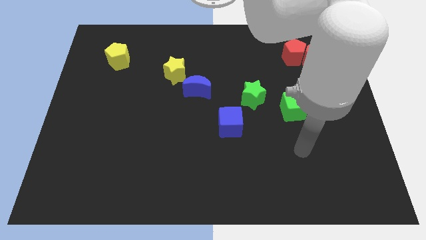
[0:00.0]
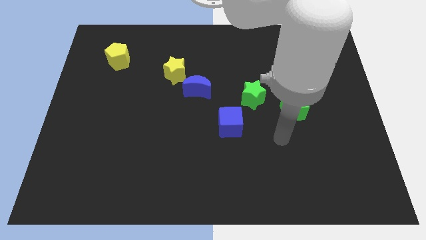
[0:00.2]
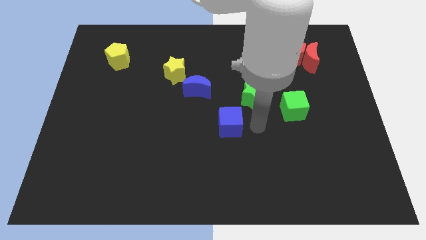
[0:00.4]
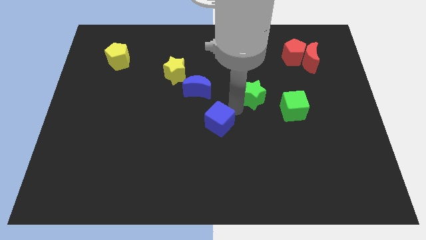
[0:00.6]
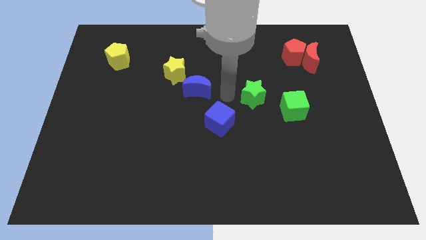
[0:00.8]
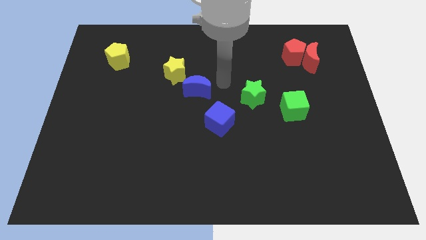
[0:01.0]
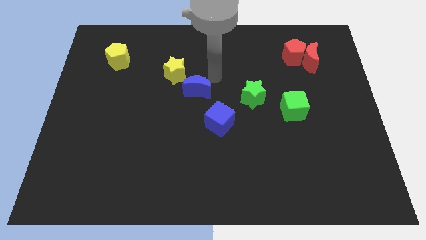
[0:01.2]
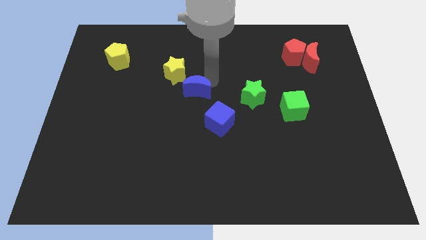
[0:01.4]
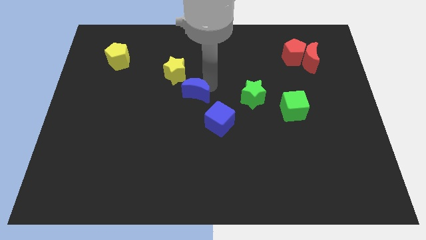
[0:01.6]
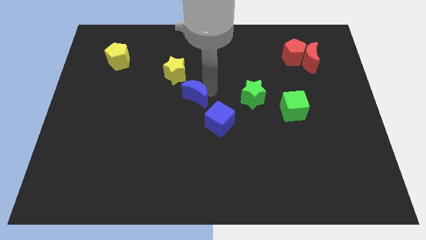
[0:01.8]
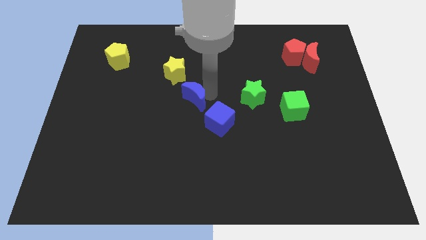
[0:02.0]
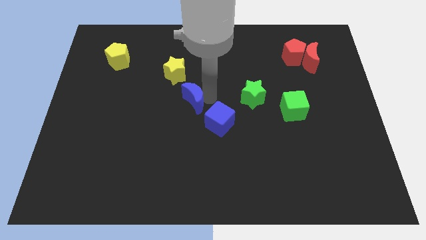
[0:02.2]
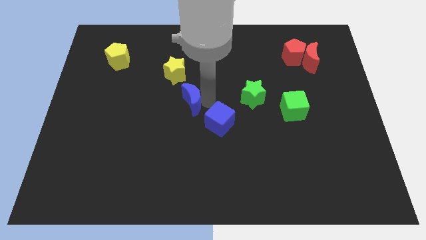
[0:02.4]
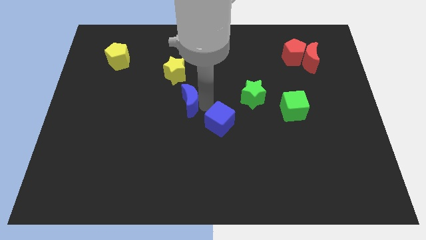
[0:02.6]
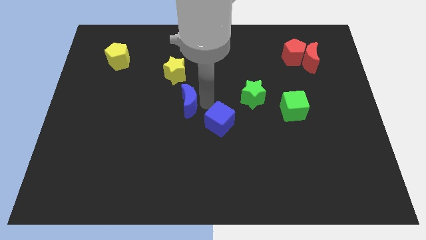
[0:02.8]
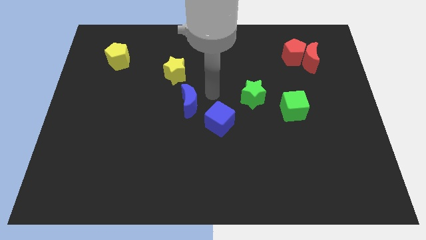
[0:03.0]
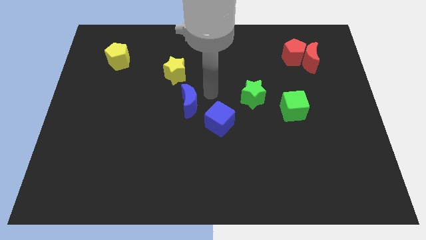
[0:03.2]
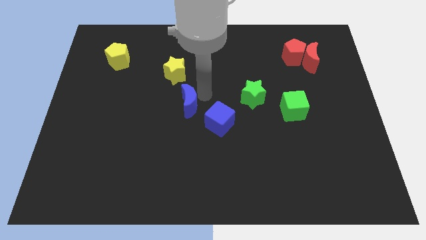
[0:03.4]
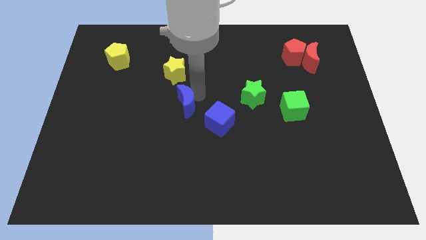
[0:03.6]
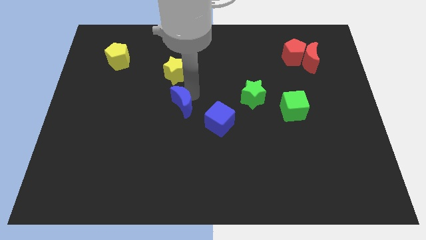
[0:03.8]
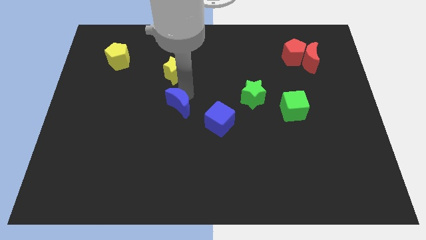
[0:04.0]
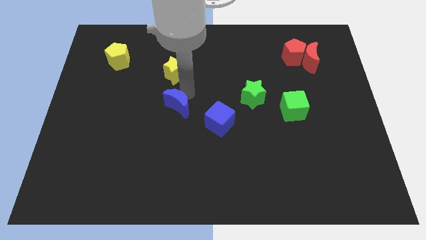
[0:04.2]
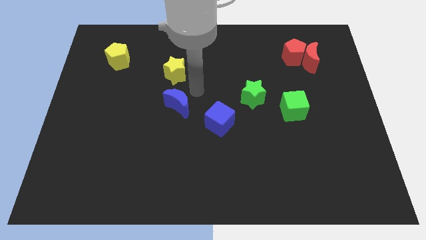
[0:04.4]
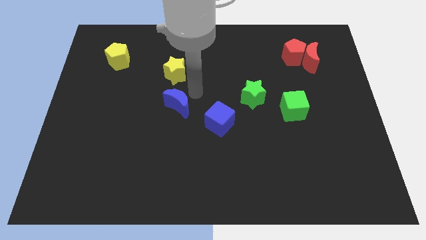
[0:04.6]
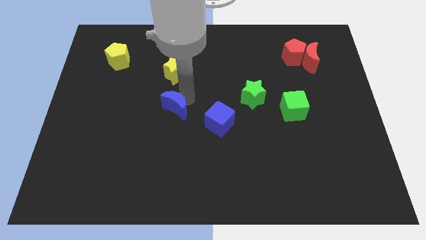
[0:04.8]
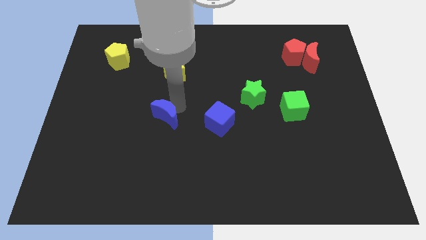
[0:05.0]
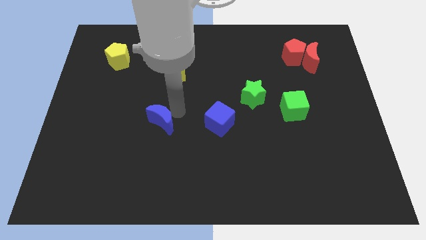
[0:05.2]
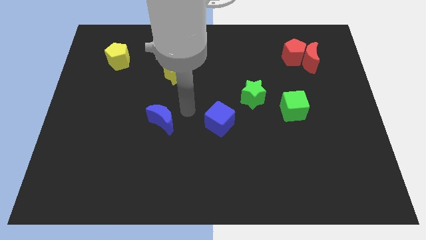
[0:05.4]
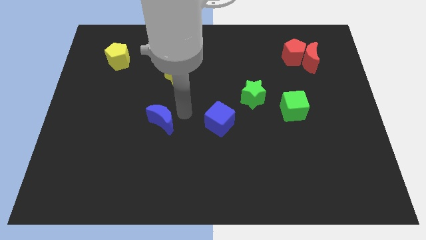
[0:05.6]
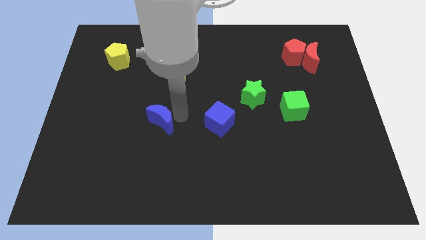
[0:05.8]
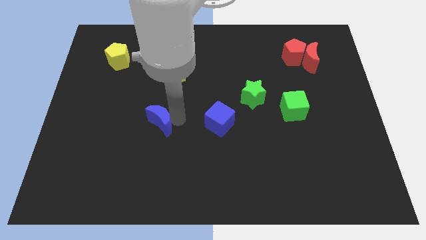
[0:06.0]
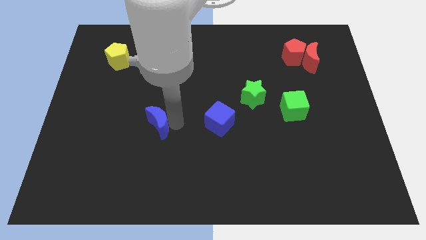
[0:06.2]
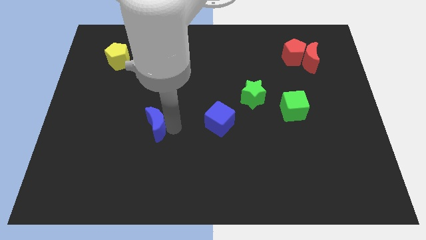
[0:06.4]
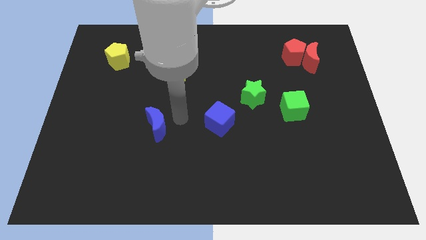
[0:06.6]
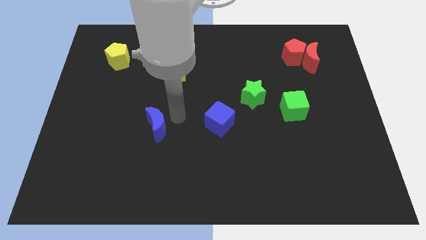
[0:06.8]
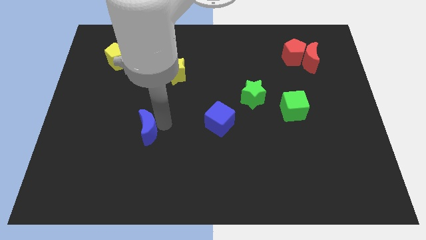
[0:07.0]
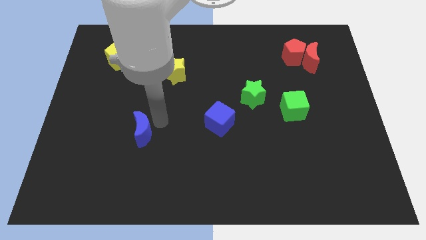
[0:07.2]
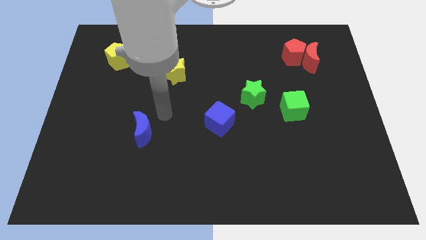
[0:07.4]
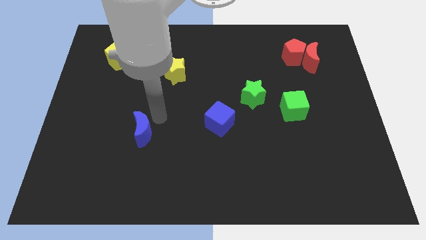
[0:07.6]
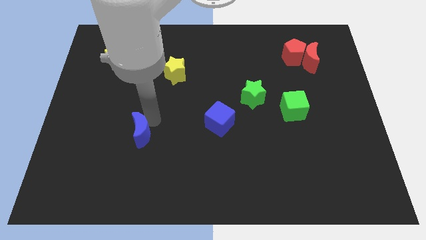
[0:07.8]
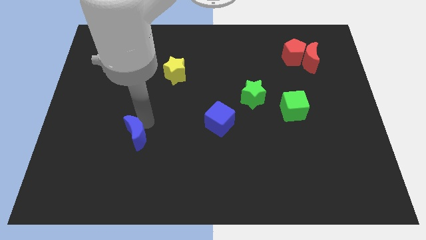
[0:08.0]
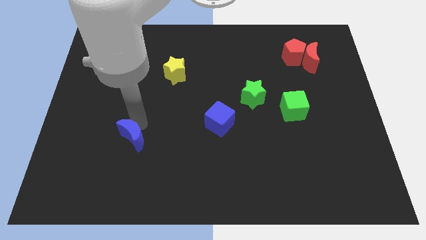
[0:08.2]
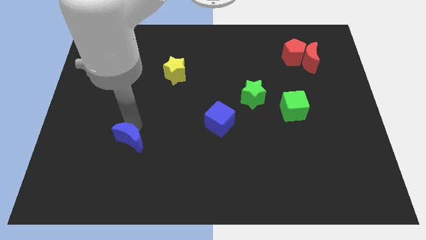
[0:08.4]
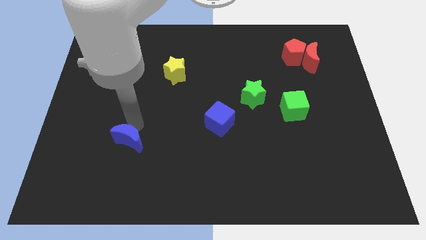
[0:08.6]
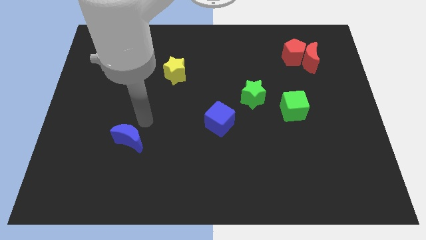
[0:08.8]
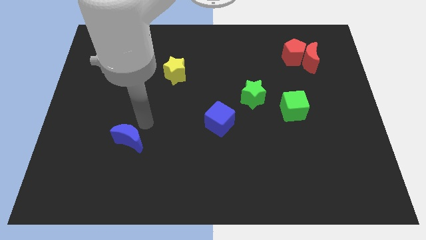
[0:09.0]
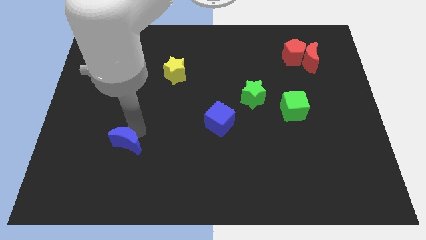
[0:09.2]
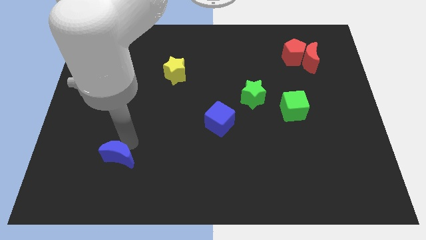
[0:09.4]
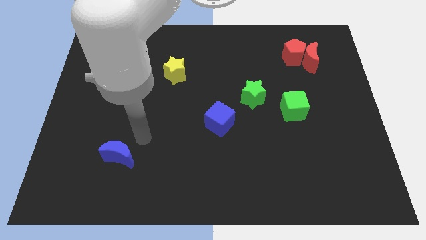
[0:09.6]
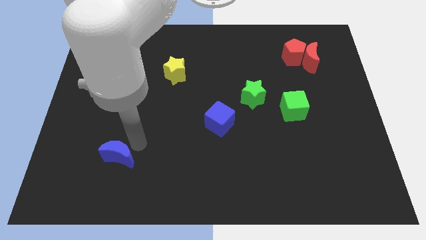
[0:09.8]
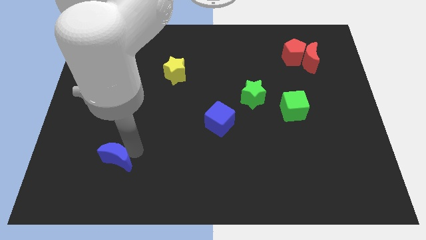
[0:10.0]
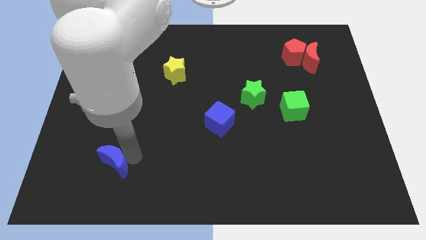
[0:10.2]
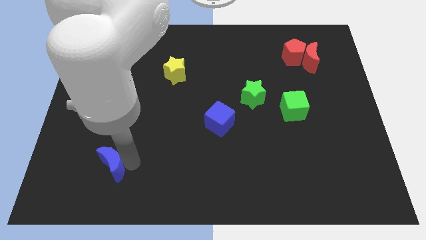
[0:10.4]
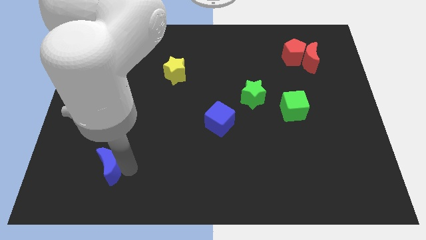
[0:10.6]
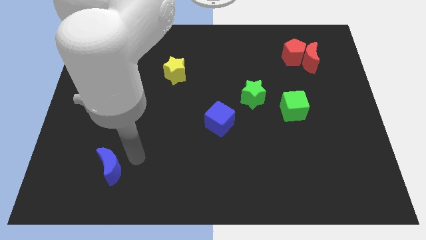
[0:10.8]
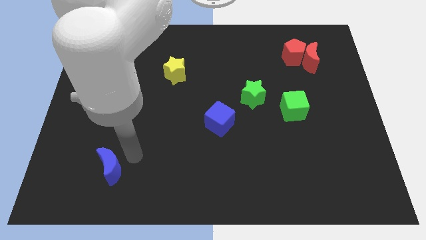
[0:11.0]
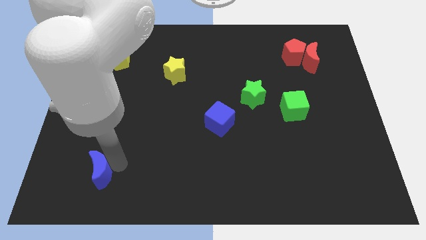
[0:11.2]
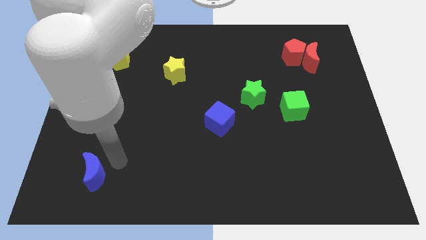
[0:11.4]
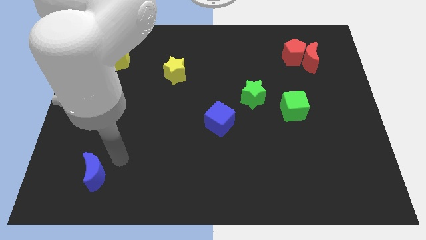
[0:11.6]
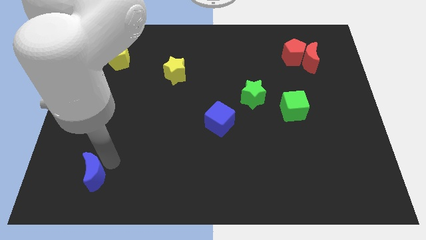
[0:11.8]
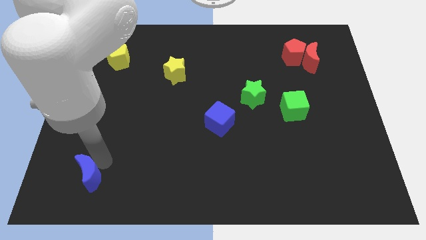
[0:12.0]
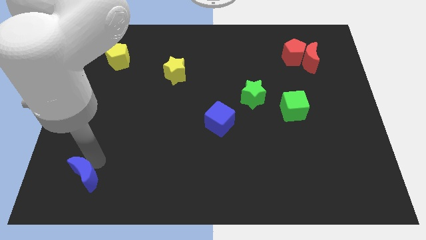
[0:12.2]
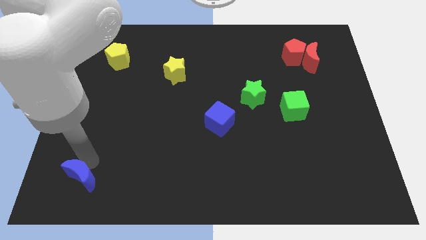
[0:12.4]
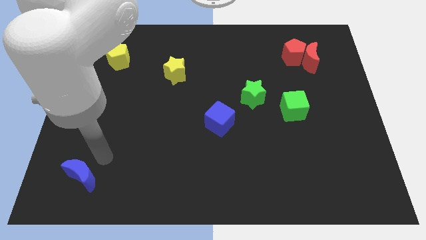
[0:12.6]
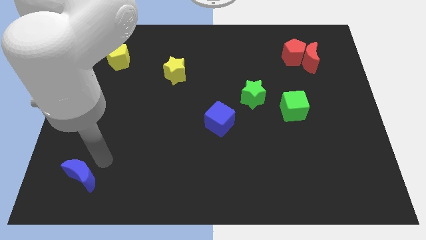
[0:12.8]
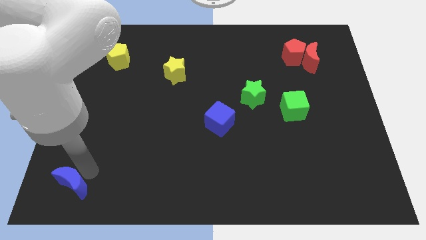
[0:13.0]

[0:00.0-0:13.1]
push the blue moon to the bottom left corner
